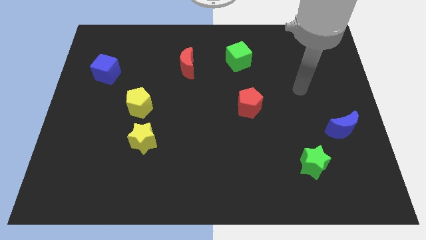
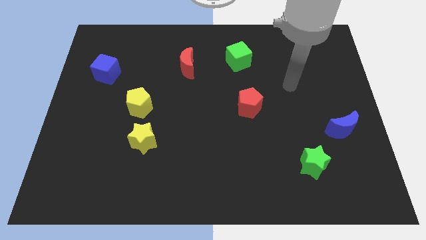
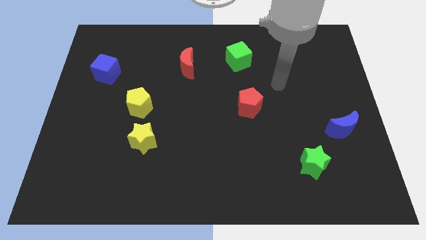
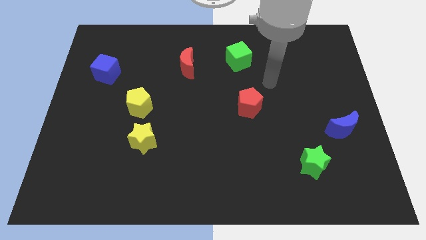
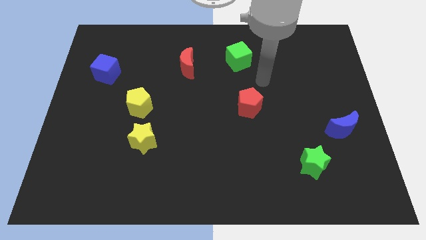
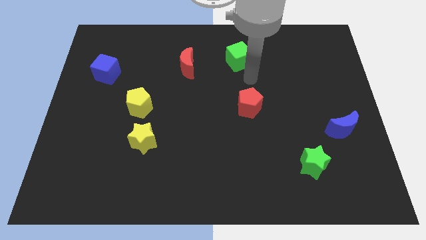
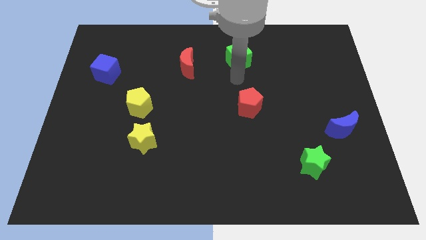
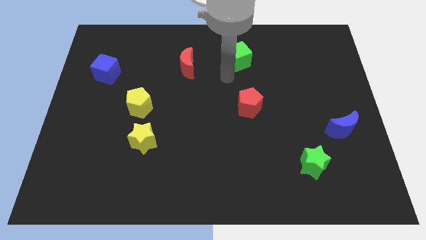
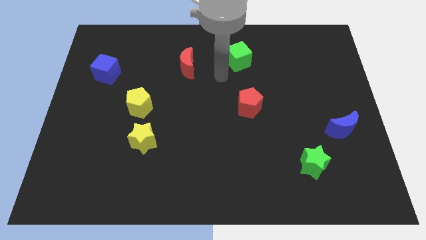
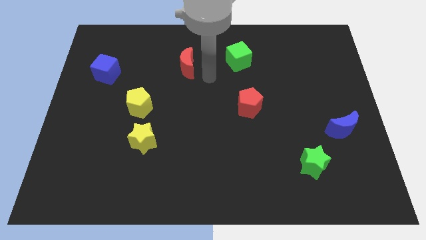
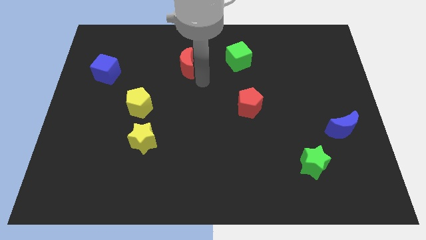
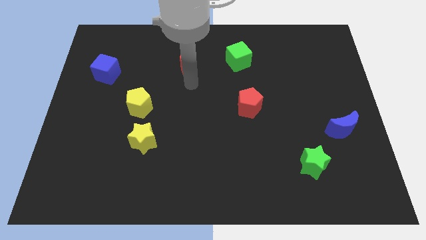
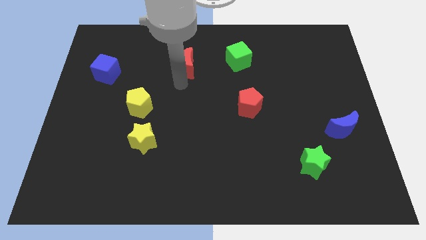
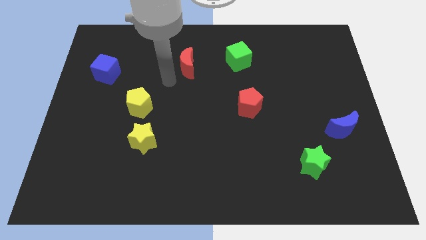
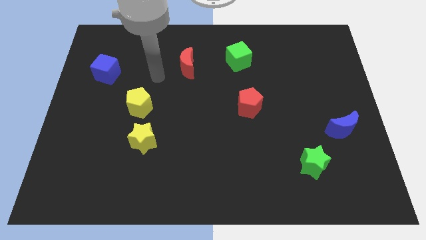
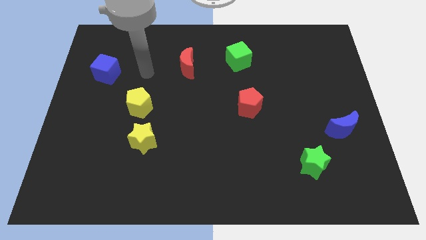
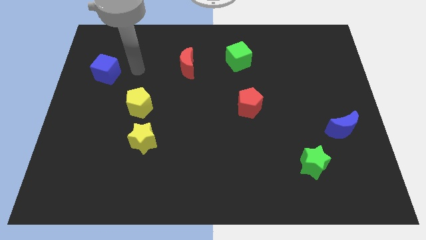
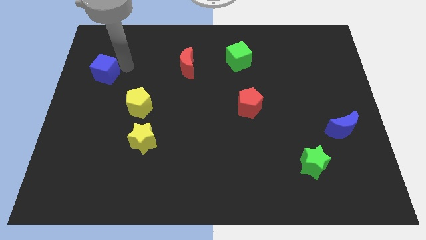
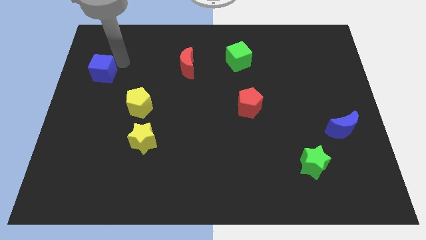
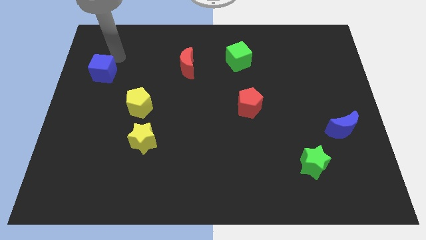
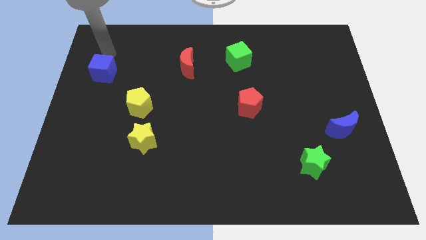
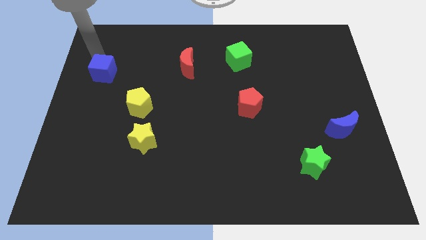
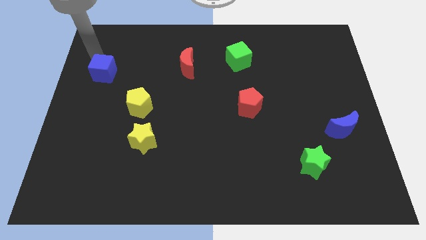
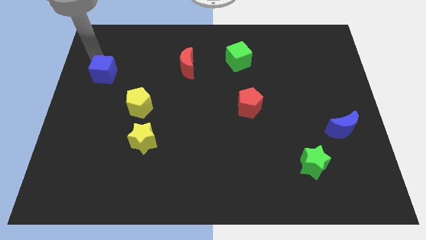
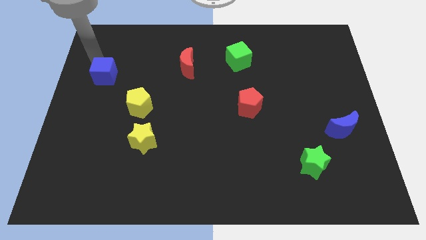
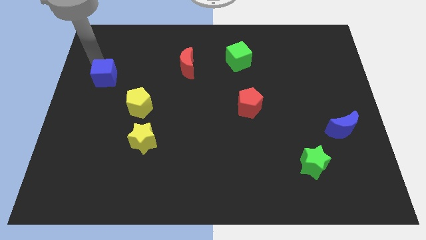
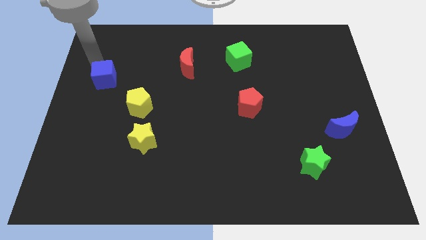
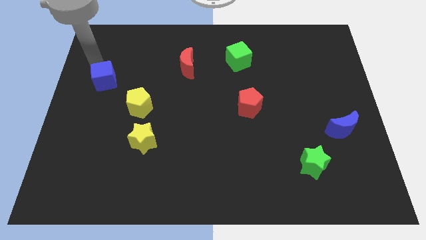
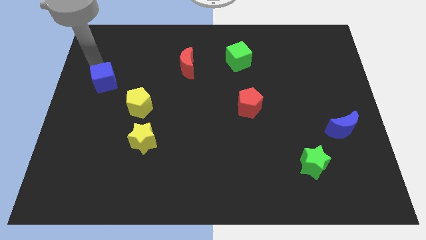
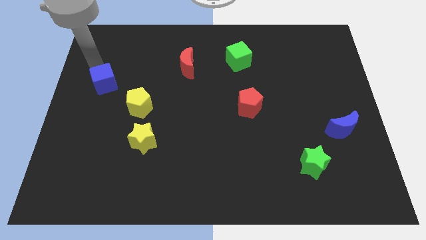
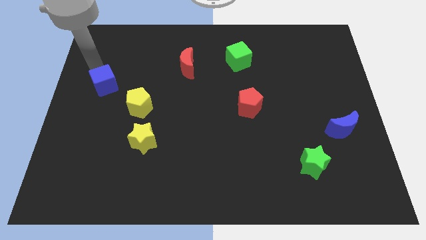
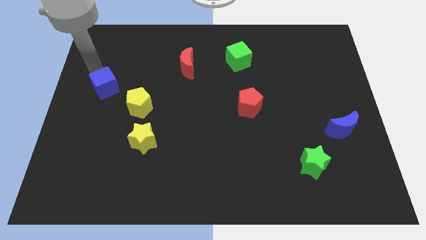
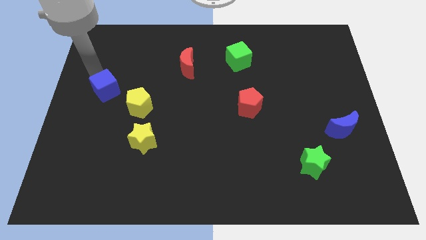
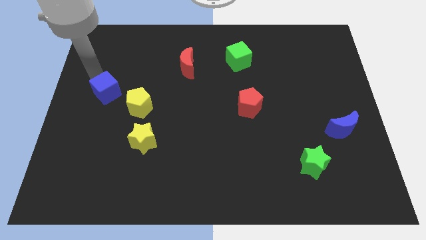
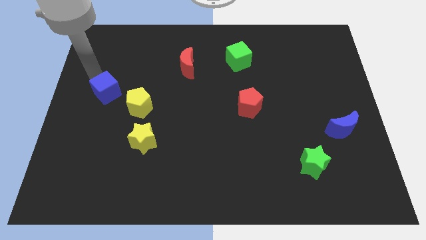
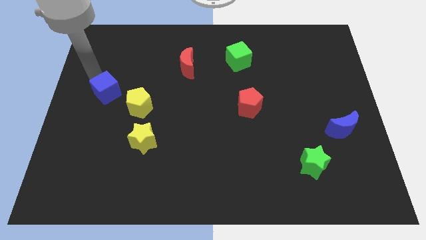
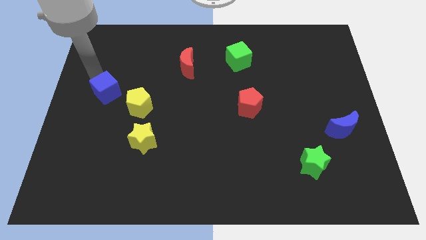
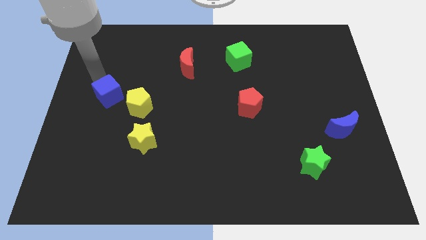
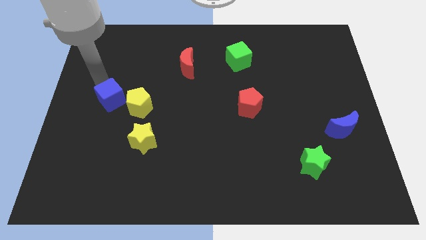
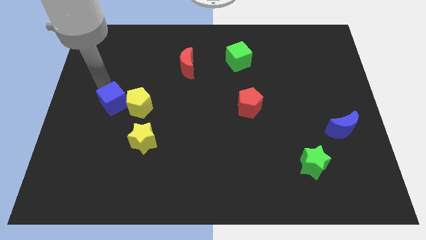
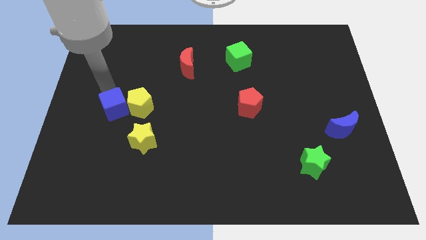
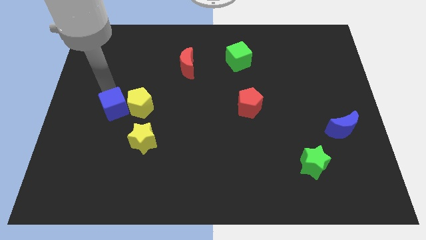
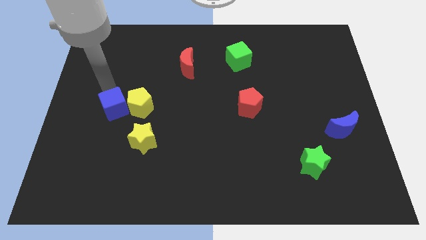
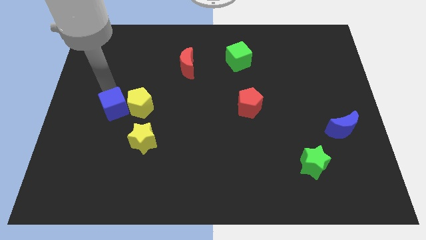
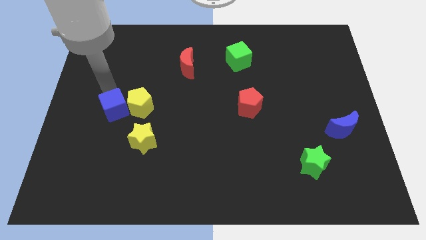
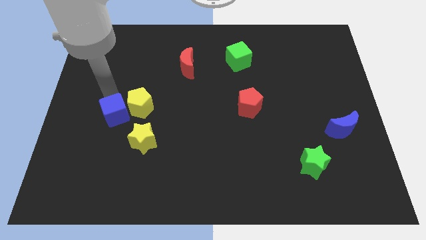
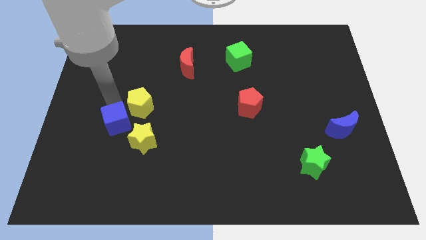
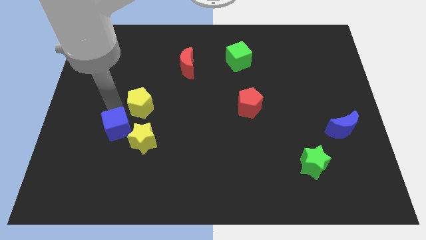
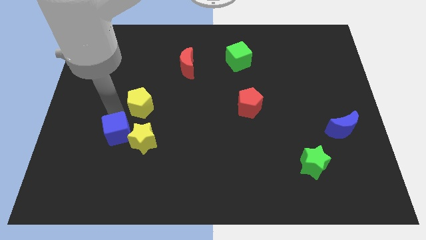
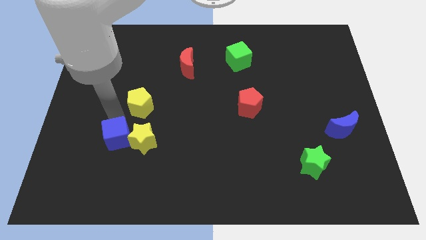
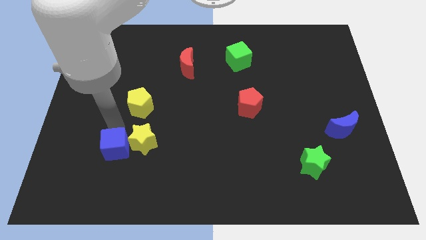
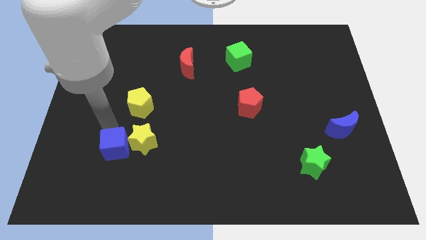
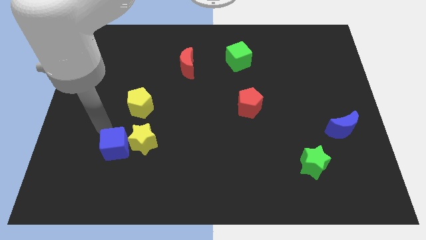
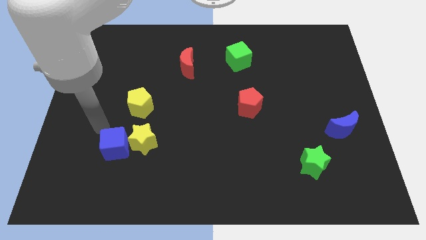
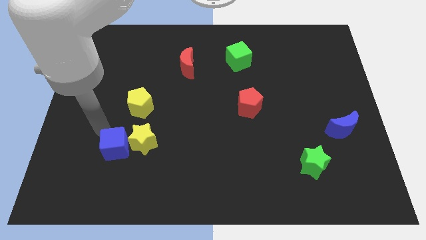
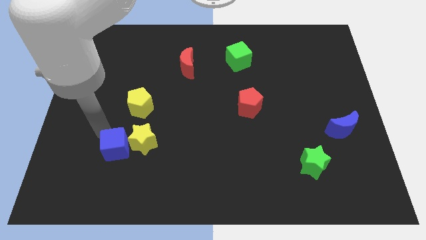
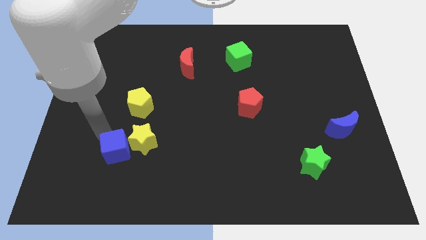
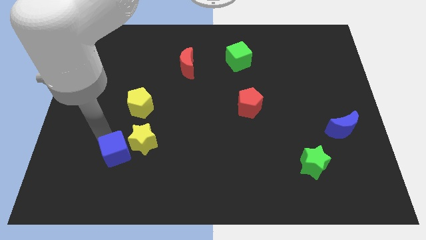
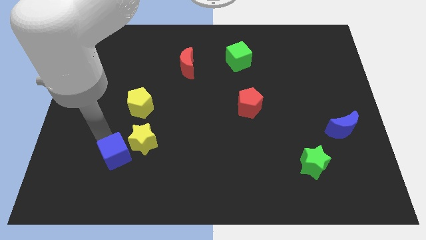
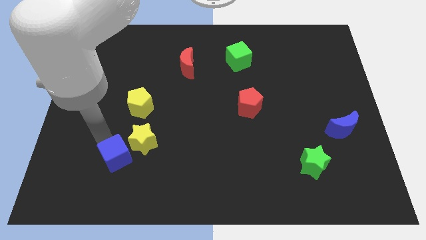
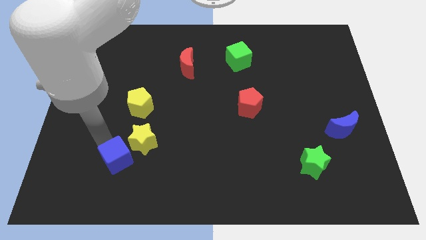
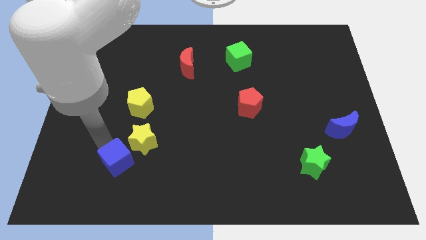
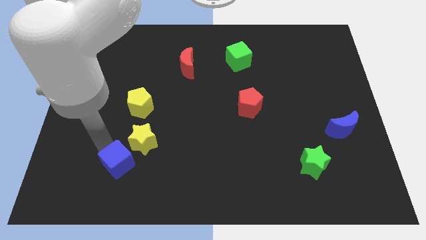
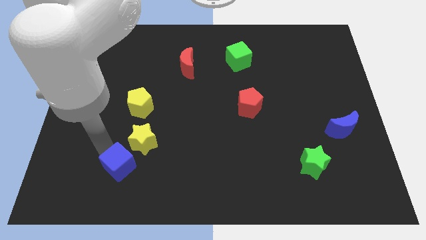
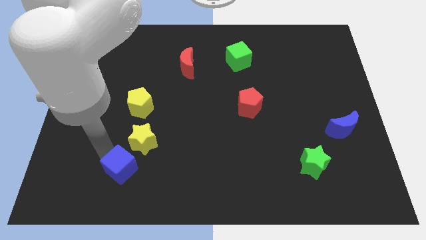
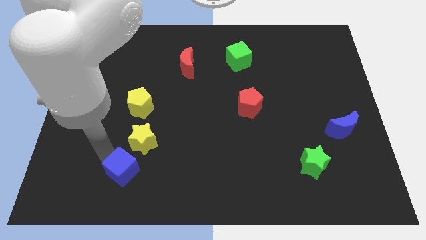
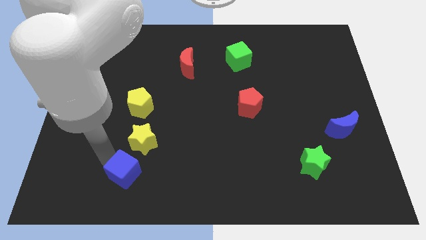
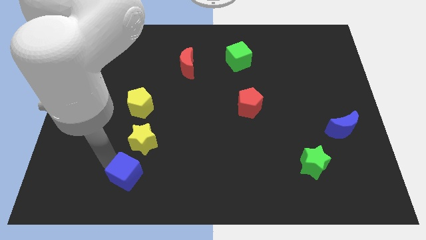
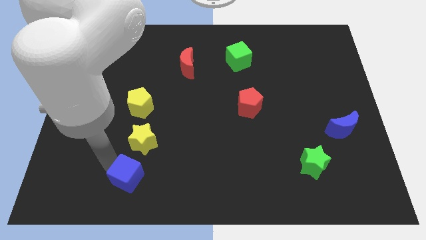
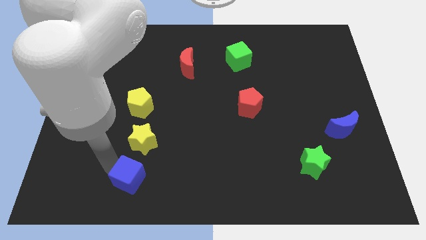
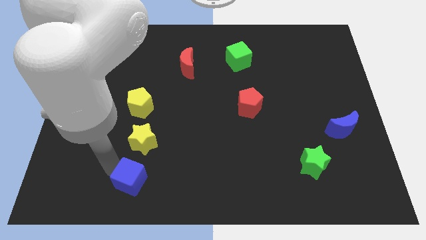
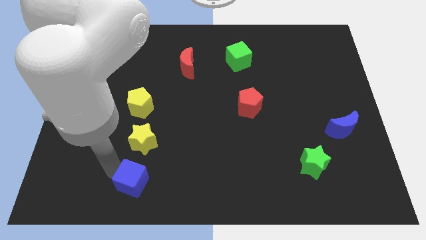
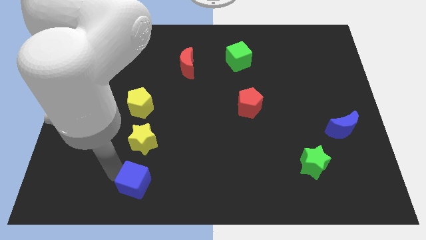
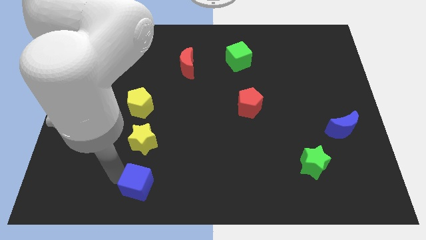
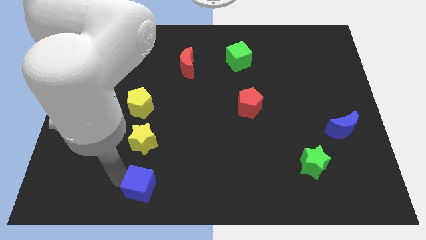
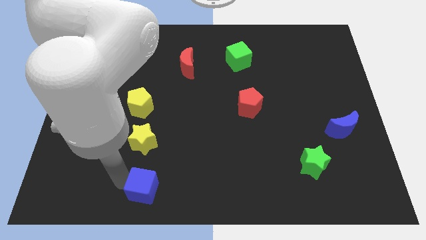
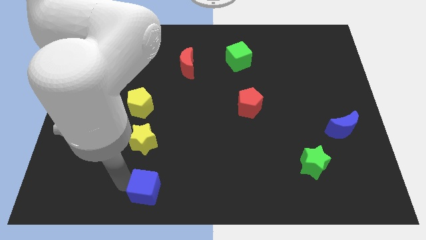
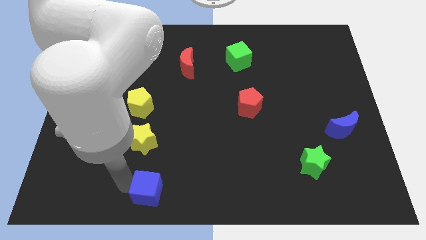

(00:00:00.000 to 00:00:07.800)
move the blue cube to the bottom side
